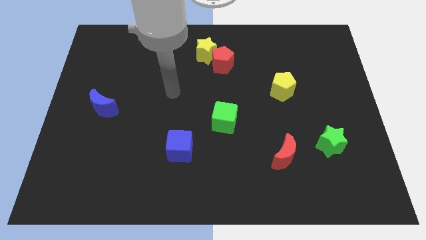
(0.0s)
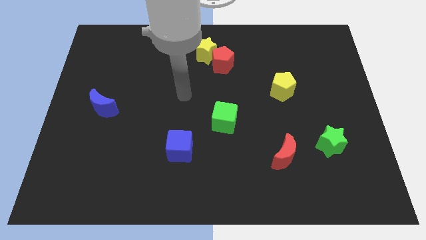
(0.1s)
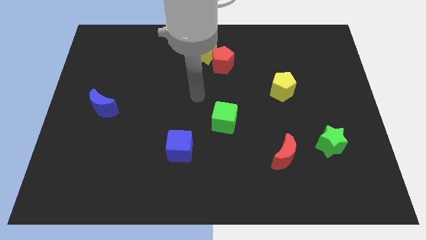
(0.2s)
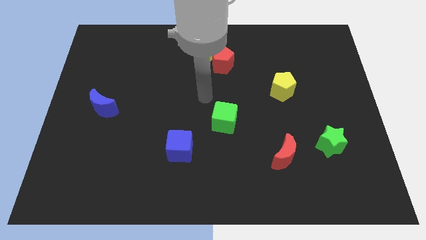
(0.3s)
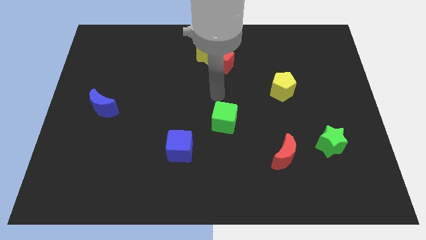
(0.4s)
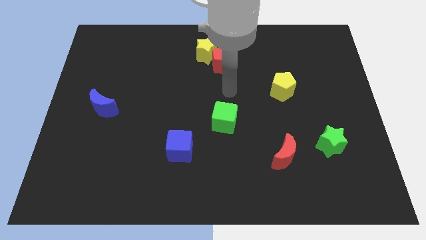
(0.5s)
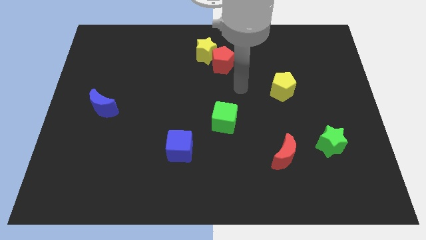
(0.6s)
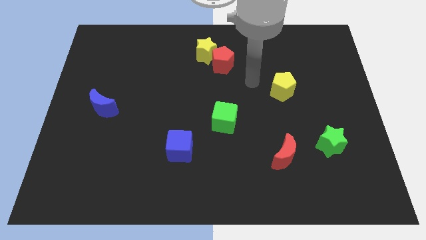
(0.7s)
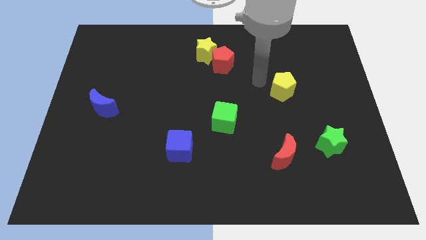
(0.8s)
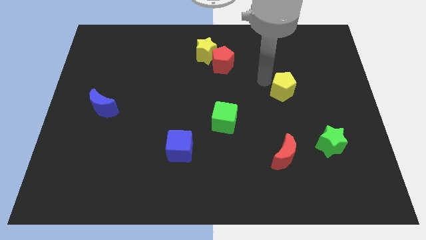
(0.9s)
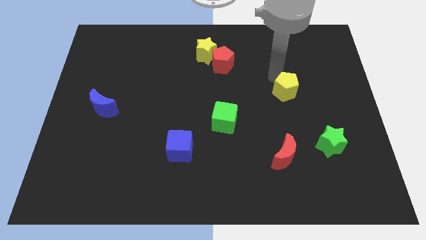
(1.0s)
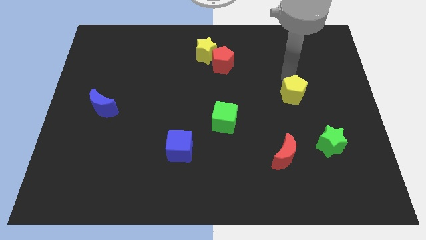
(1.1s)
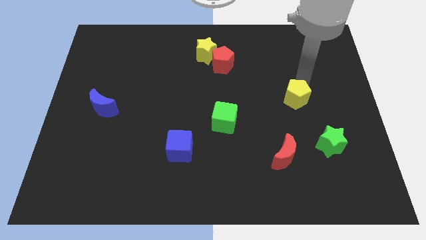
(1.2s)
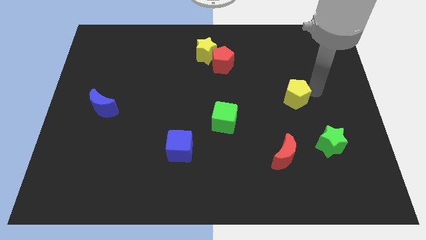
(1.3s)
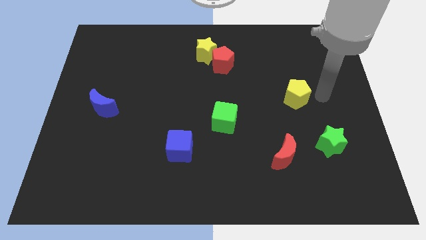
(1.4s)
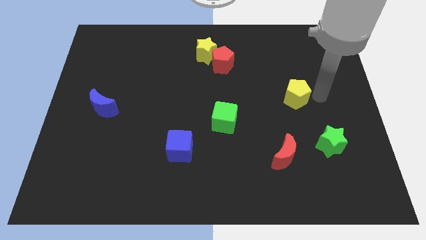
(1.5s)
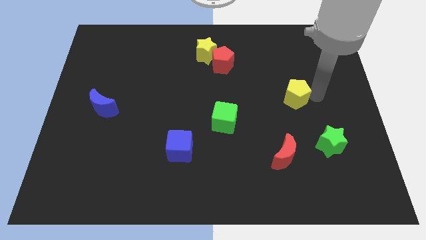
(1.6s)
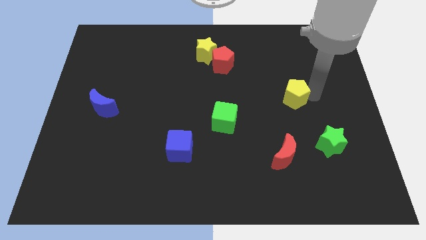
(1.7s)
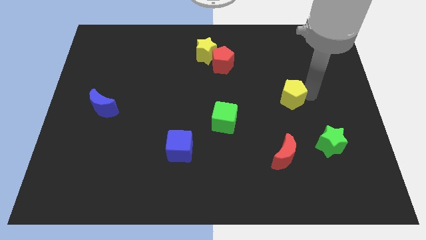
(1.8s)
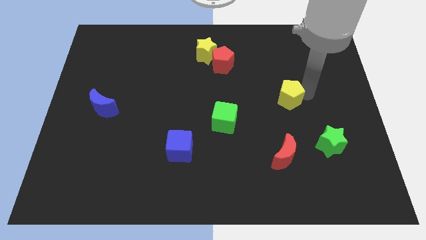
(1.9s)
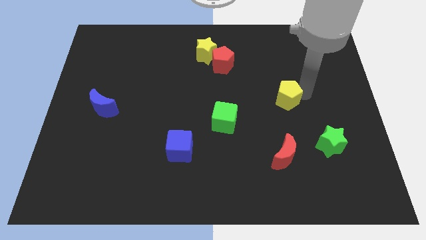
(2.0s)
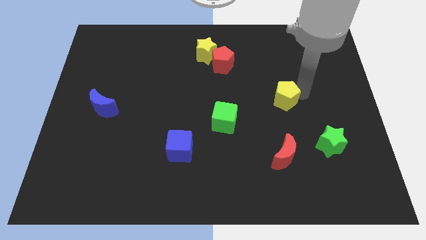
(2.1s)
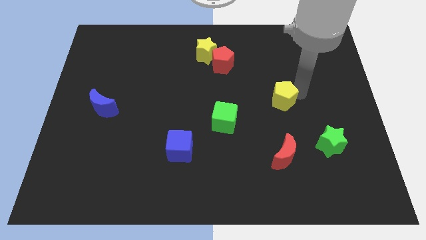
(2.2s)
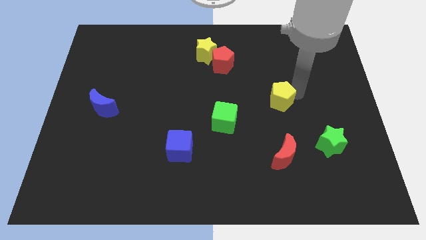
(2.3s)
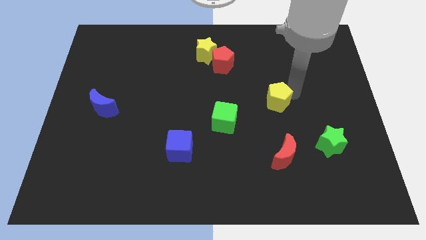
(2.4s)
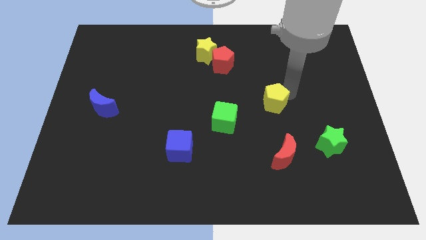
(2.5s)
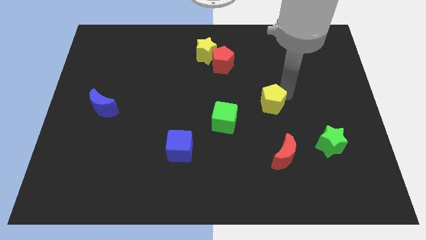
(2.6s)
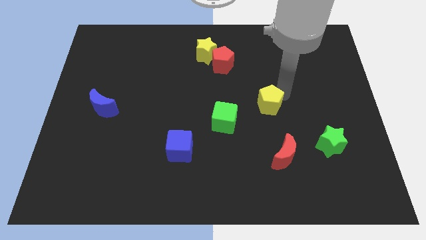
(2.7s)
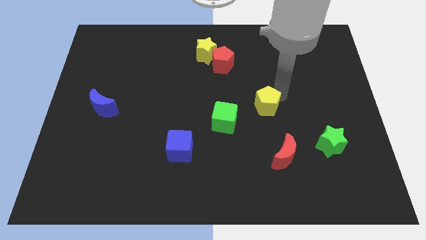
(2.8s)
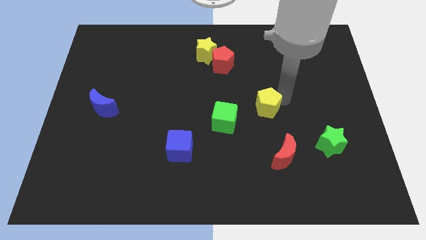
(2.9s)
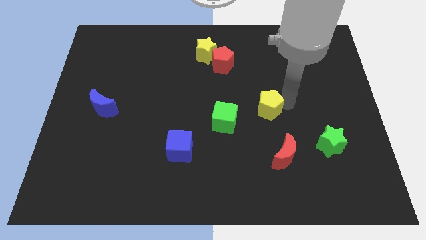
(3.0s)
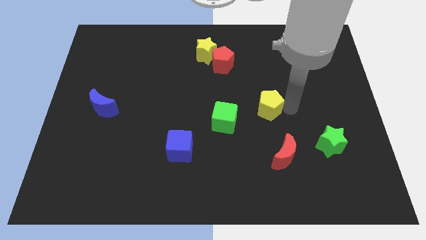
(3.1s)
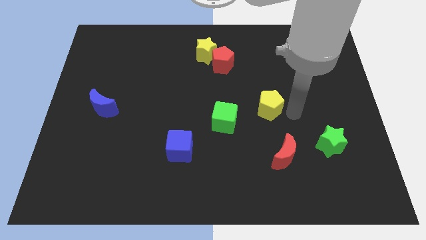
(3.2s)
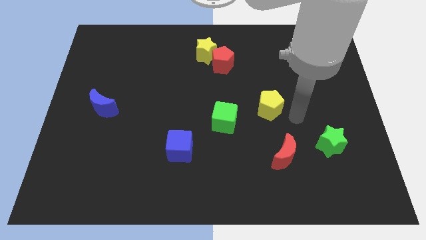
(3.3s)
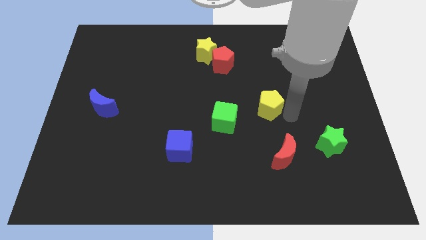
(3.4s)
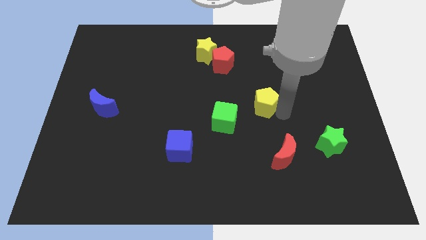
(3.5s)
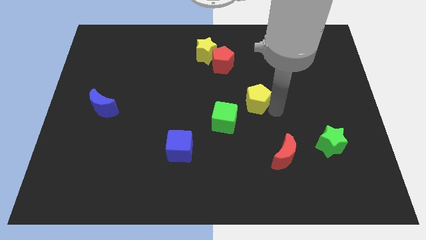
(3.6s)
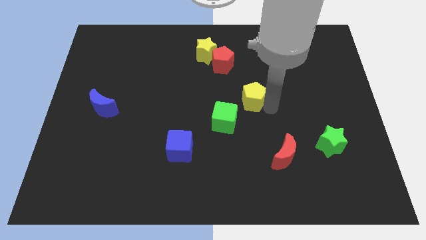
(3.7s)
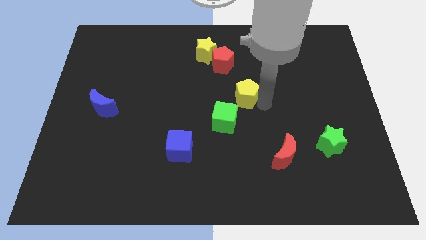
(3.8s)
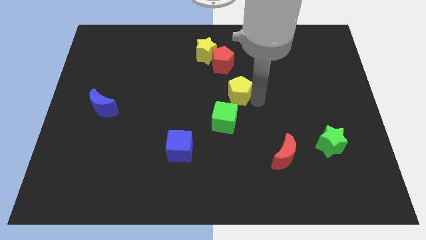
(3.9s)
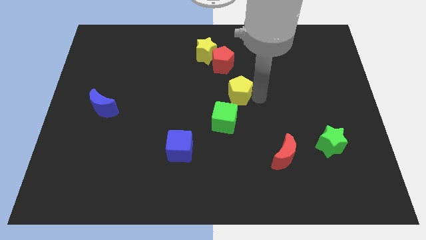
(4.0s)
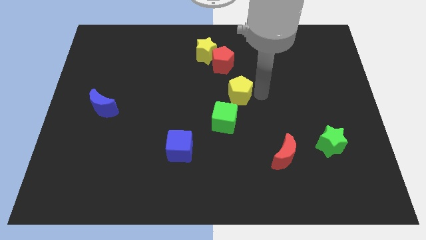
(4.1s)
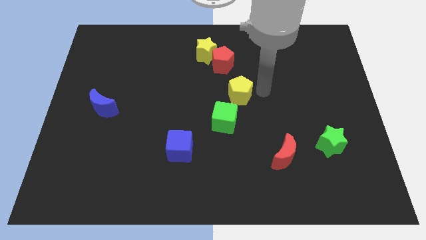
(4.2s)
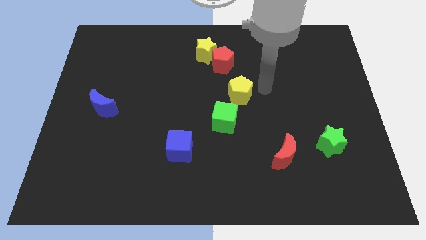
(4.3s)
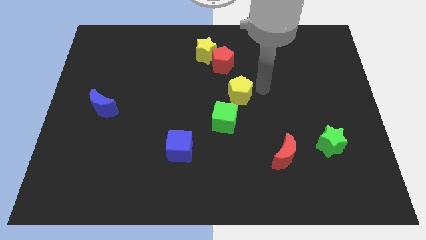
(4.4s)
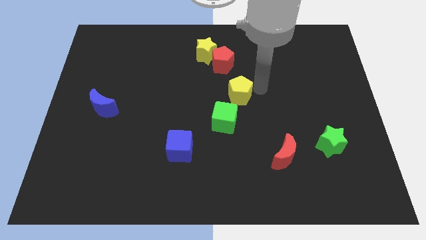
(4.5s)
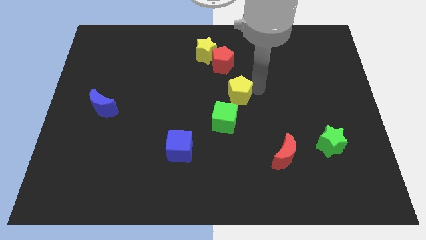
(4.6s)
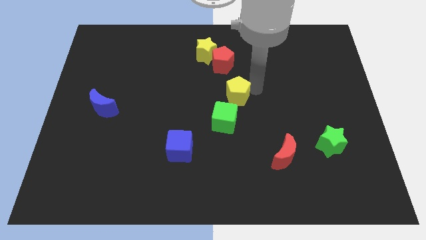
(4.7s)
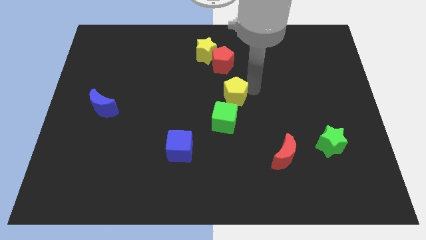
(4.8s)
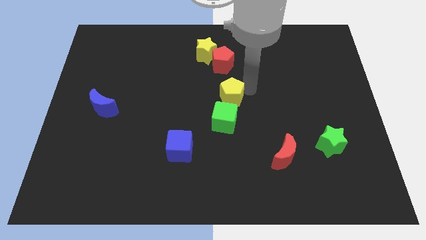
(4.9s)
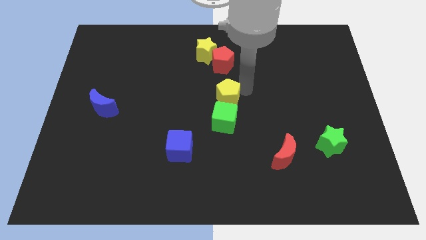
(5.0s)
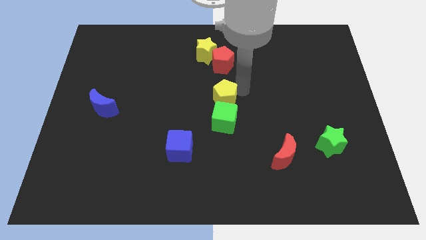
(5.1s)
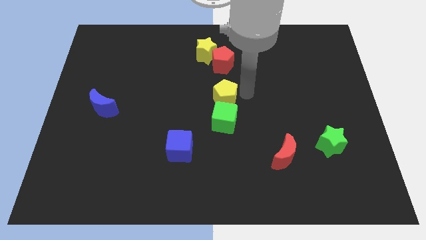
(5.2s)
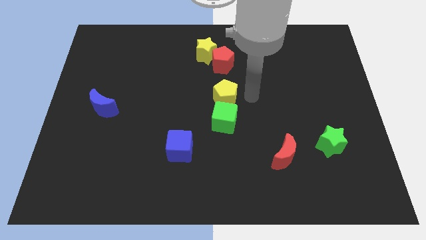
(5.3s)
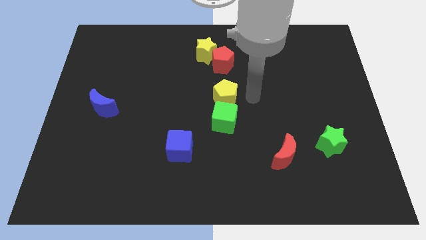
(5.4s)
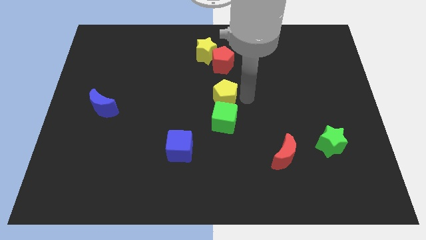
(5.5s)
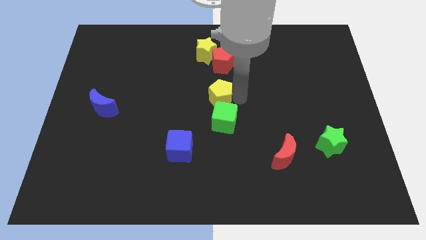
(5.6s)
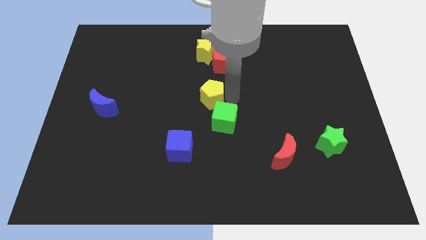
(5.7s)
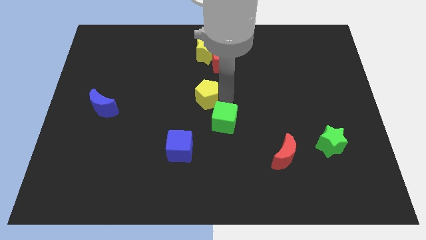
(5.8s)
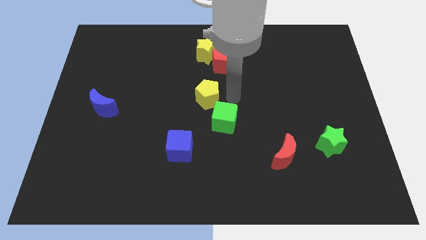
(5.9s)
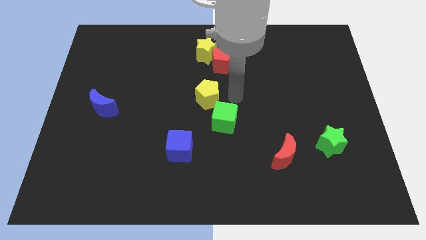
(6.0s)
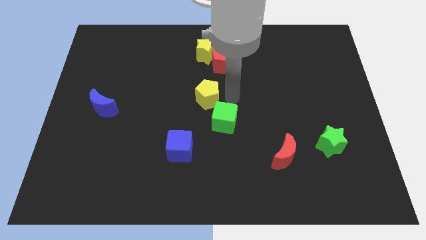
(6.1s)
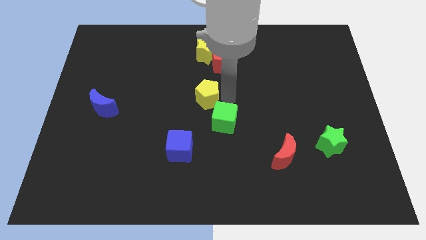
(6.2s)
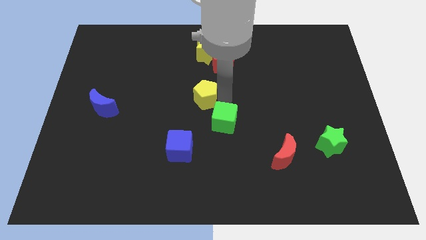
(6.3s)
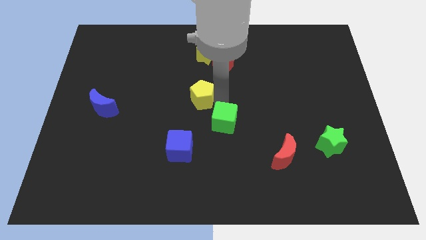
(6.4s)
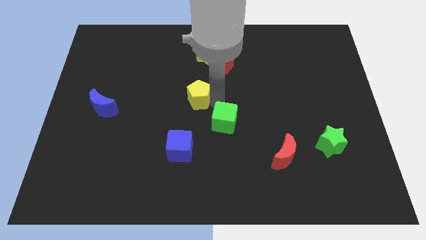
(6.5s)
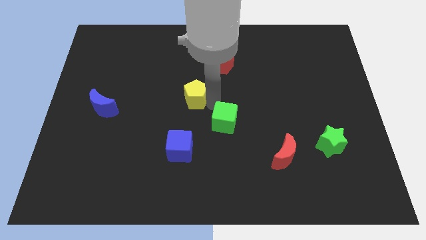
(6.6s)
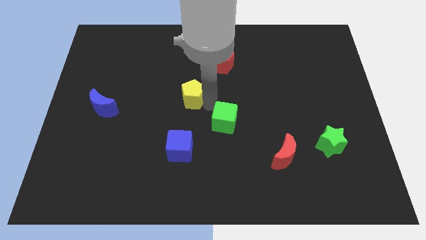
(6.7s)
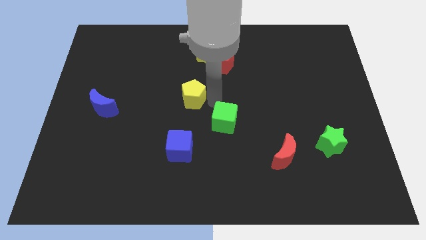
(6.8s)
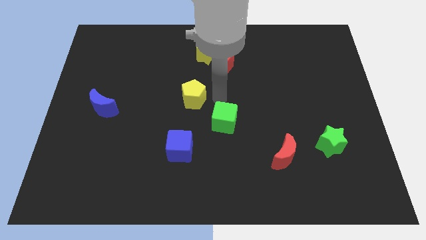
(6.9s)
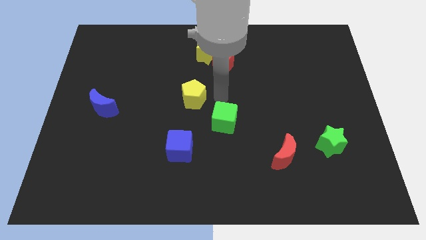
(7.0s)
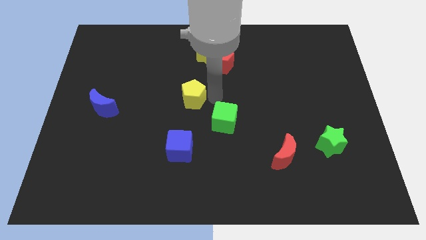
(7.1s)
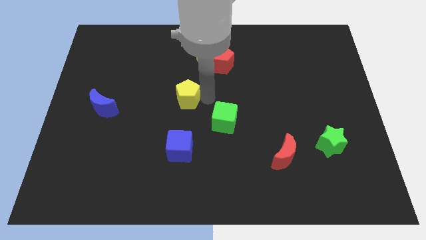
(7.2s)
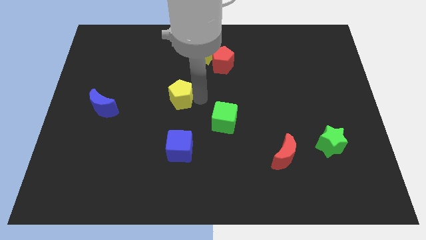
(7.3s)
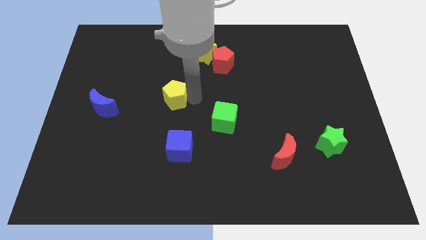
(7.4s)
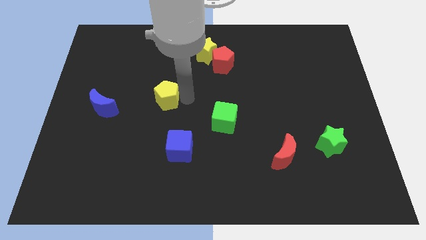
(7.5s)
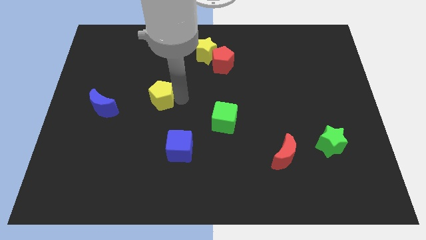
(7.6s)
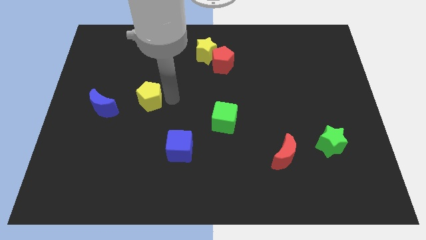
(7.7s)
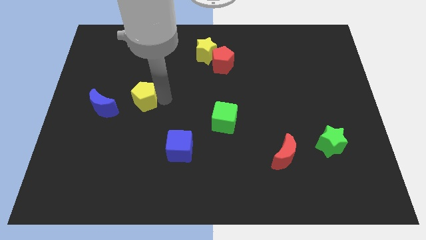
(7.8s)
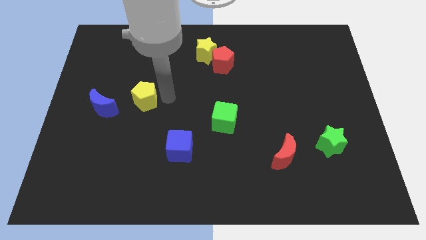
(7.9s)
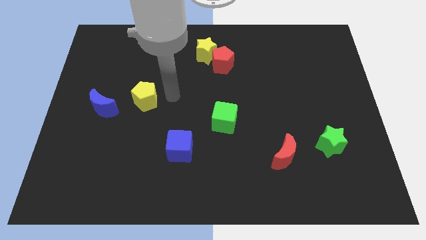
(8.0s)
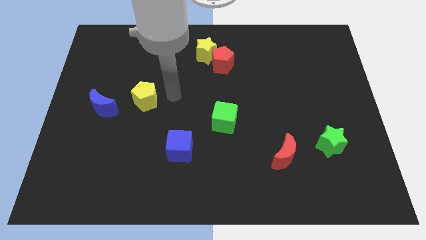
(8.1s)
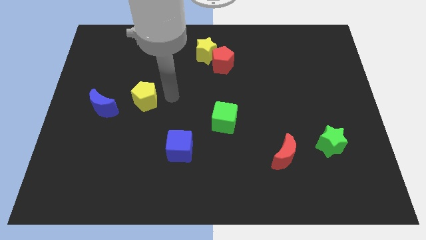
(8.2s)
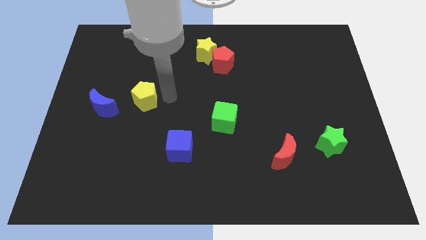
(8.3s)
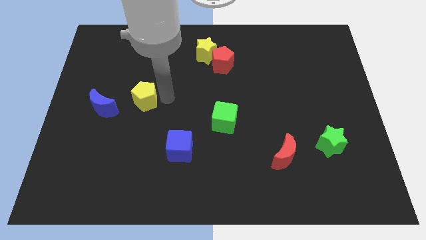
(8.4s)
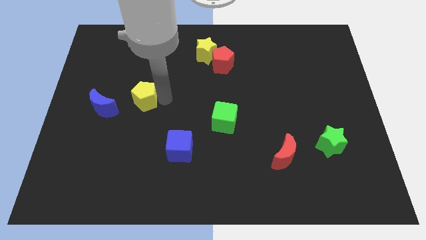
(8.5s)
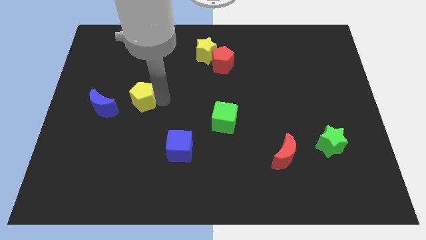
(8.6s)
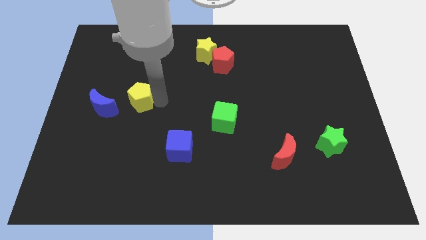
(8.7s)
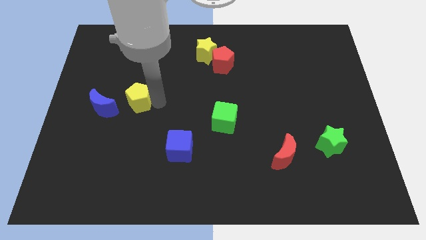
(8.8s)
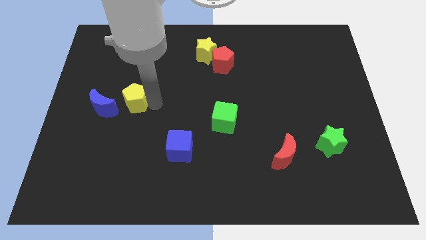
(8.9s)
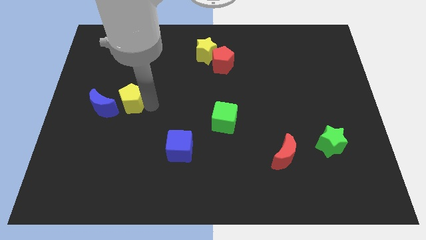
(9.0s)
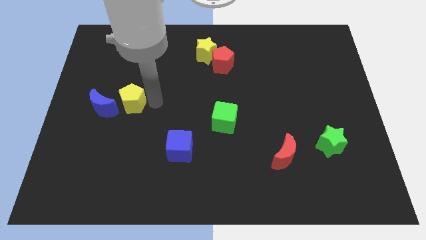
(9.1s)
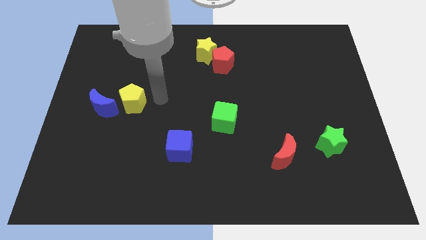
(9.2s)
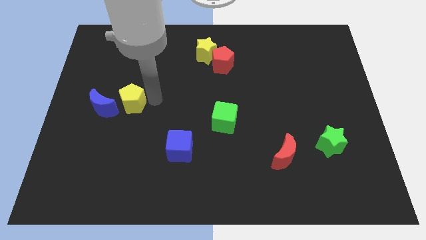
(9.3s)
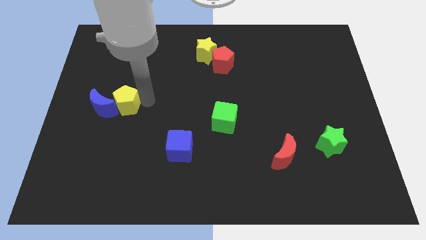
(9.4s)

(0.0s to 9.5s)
move the yellow pentagon close to the blue moon
